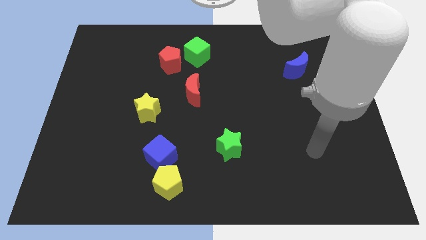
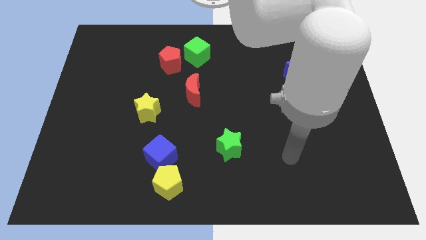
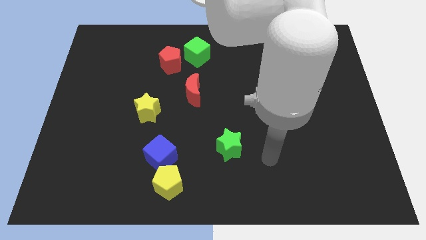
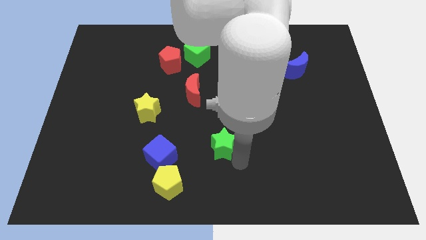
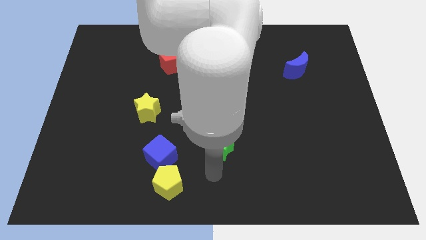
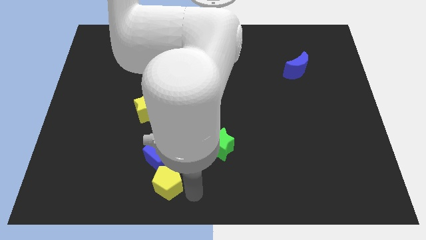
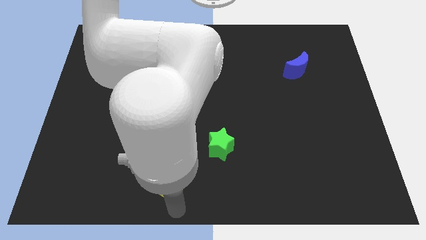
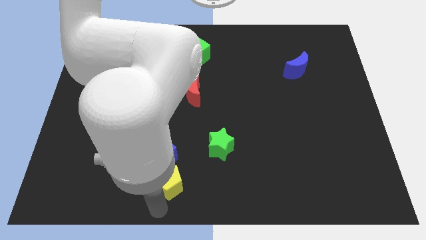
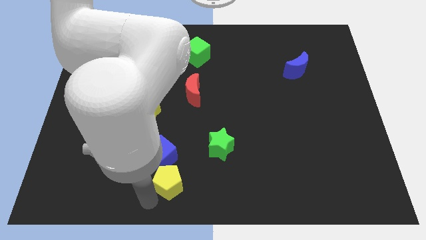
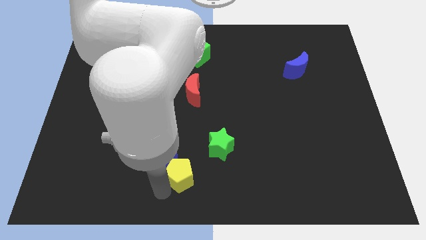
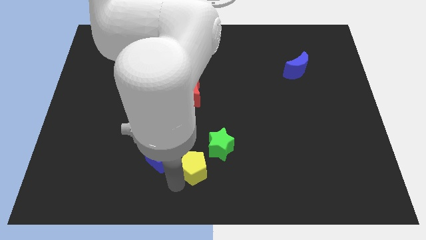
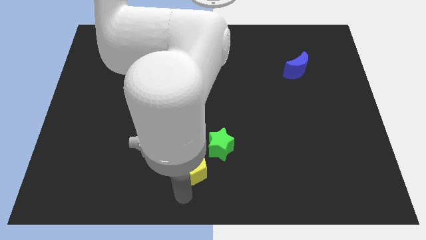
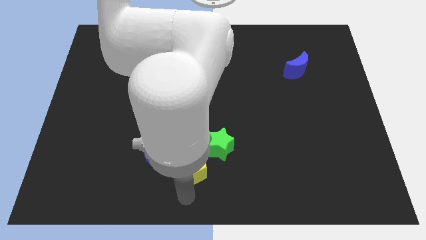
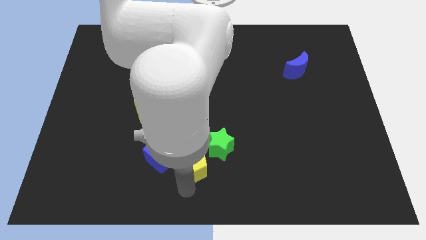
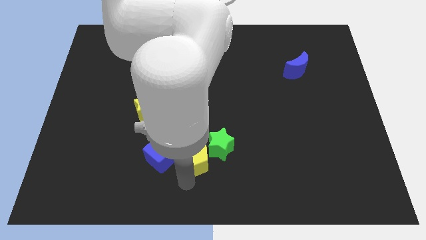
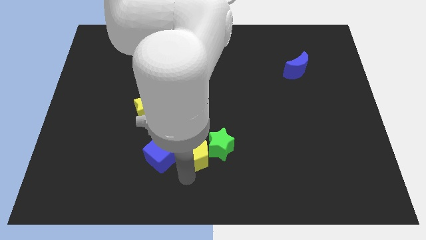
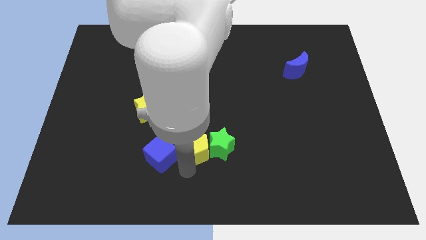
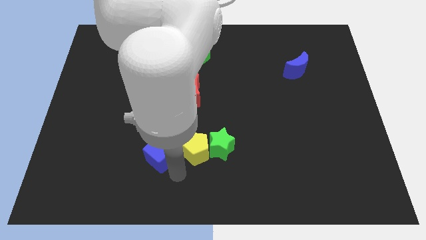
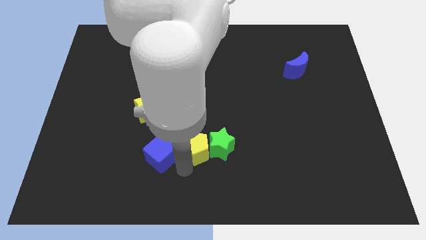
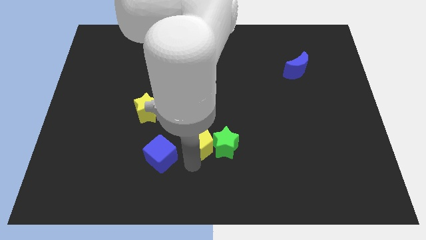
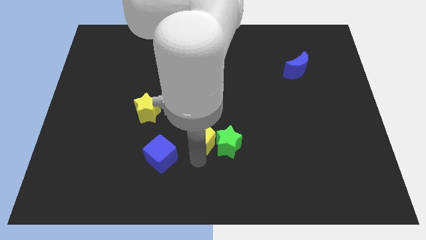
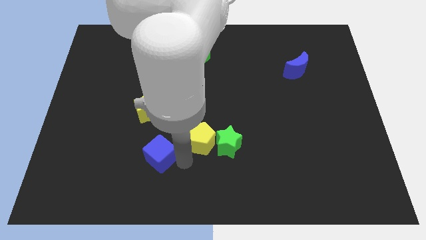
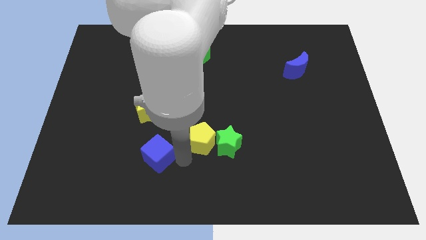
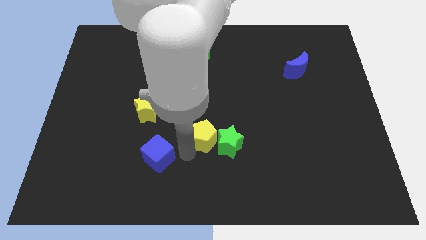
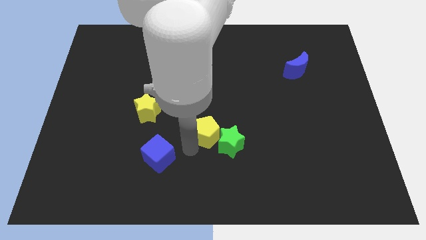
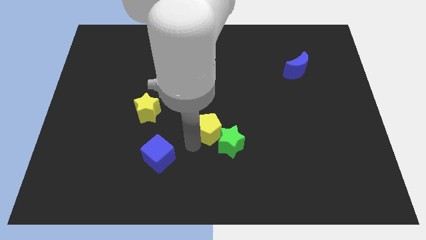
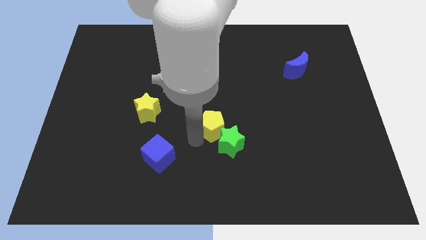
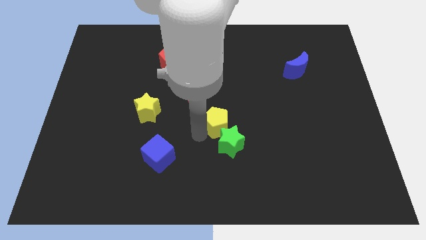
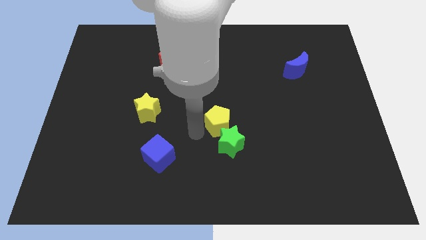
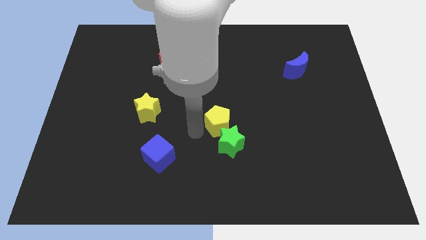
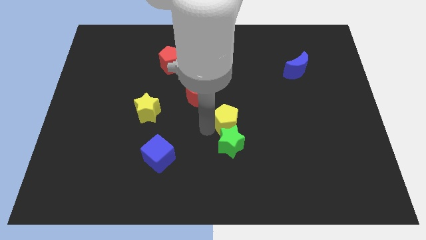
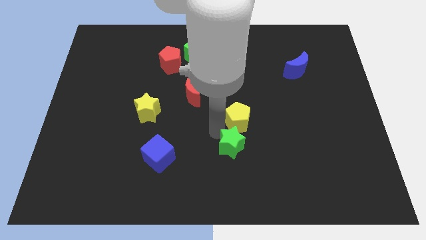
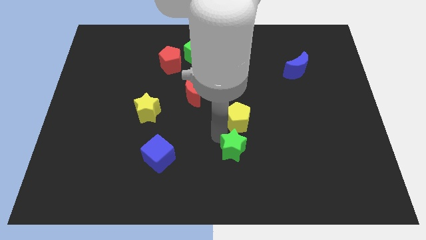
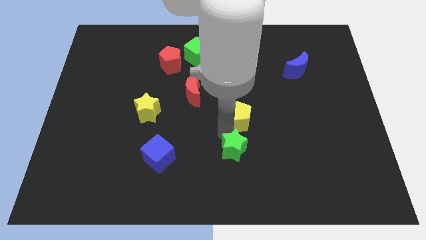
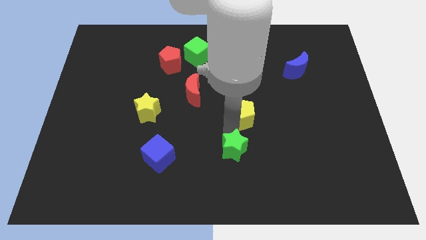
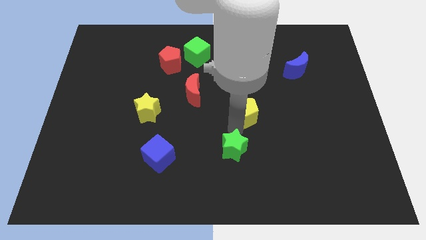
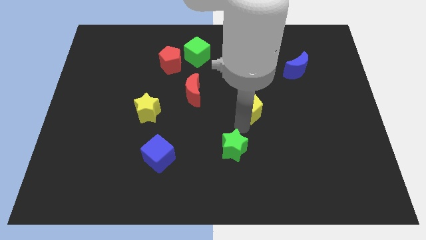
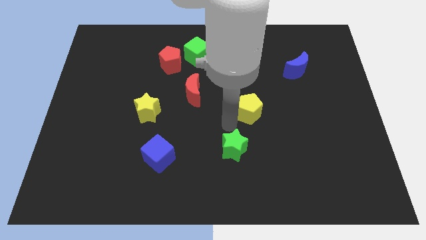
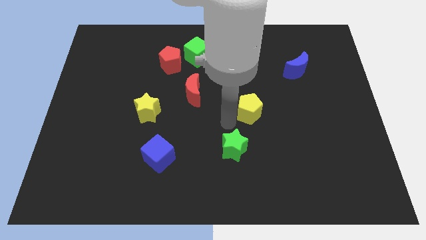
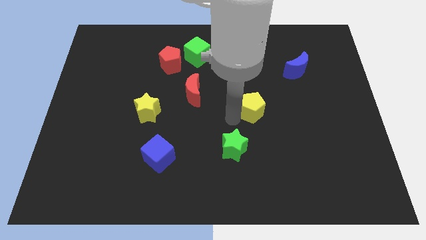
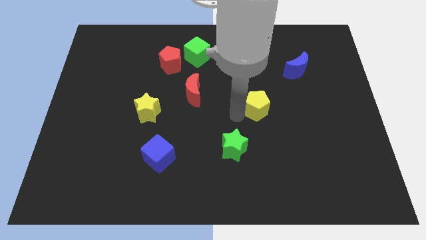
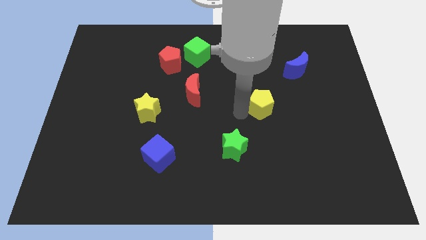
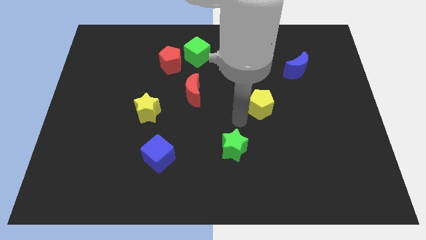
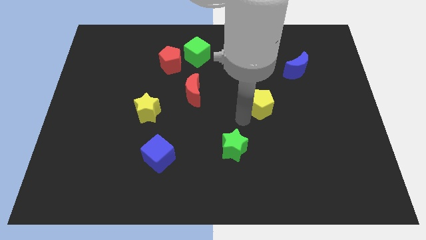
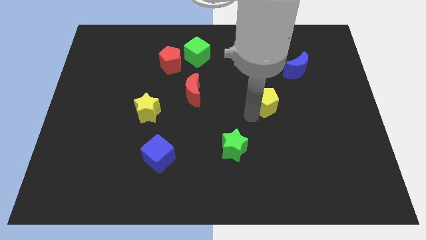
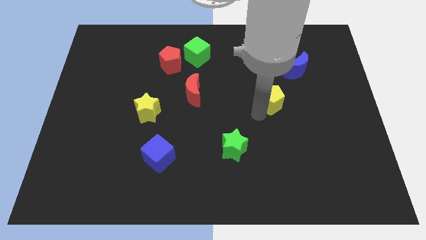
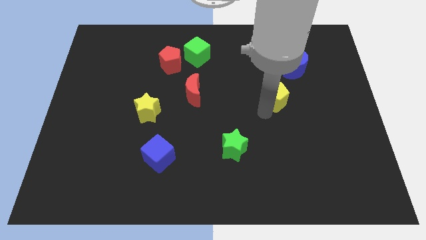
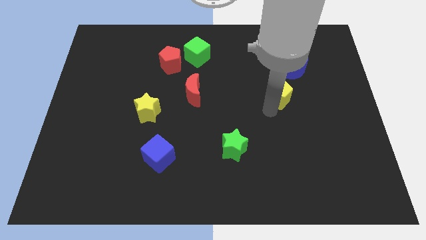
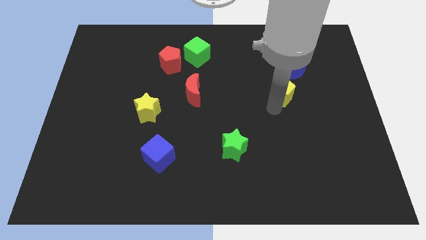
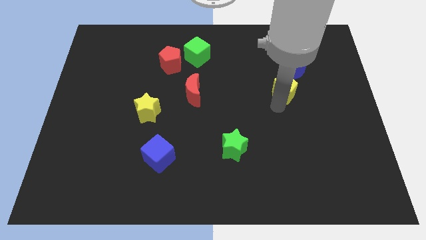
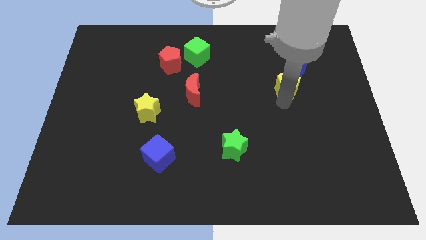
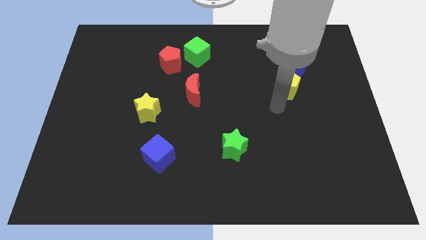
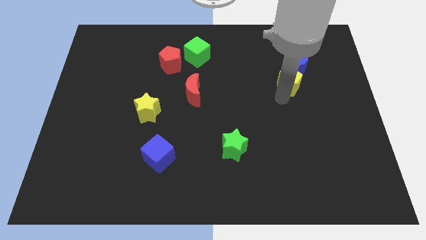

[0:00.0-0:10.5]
put the yellow pentagon close to the blue moon

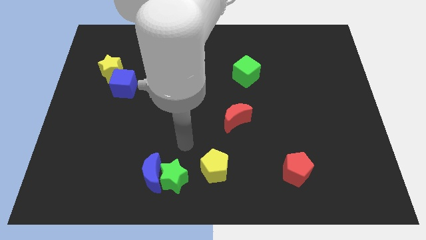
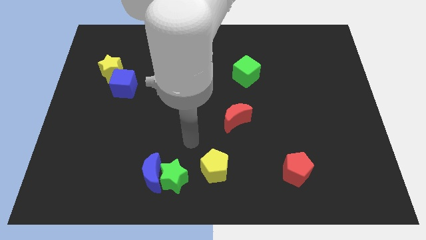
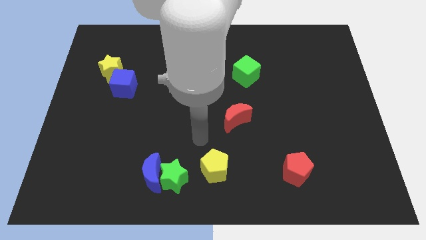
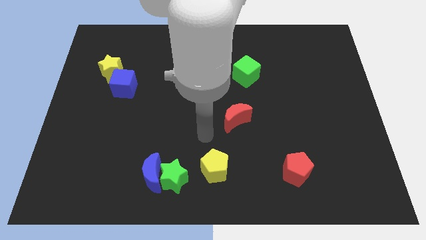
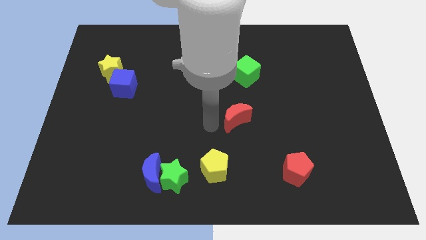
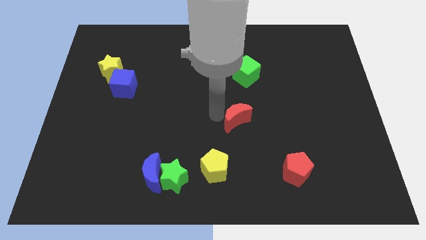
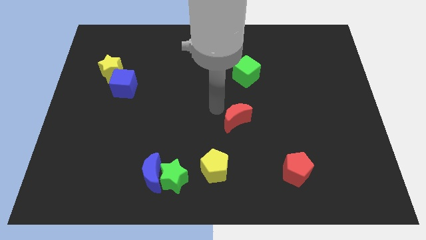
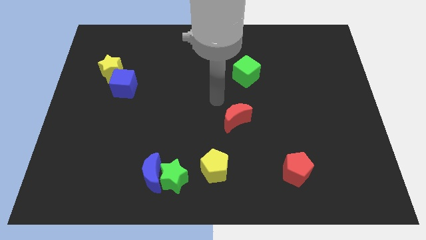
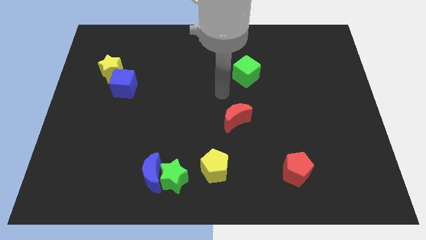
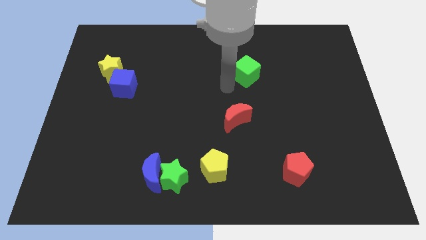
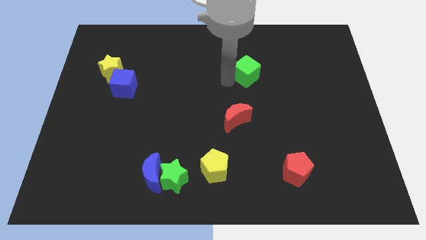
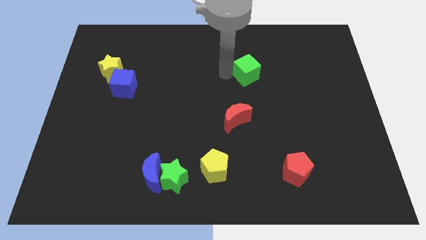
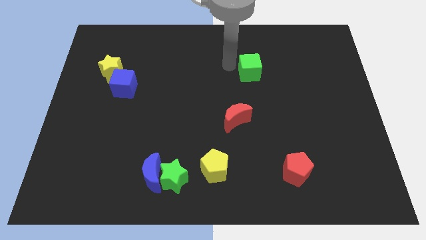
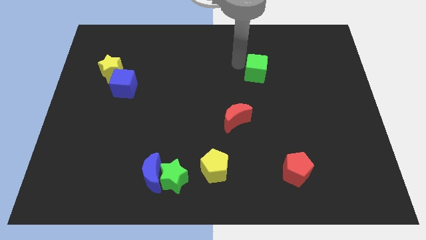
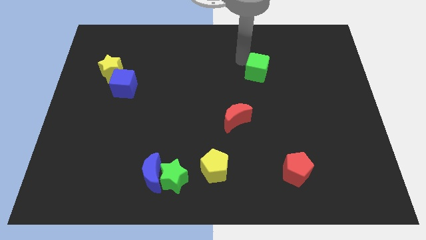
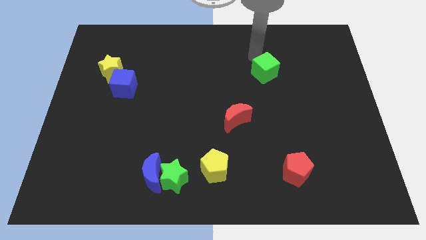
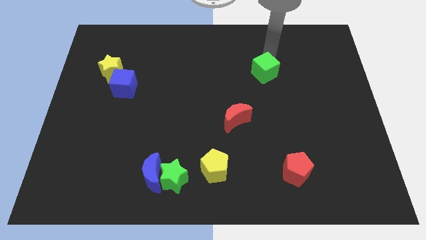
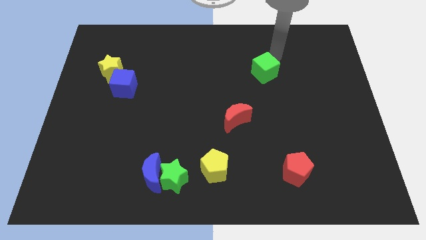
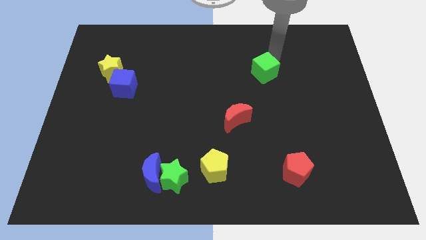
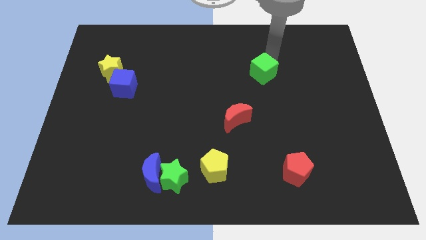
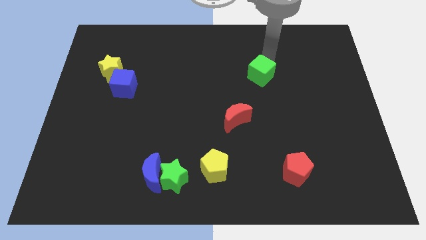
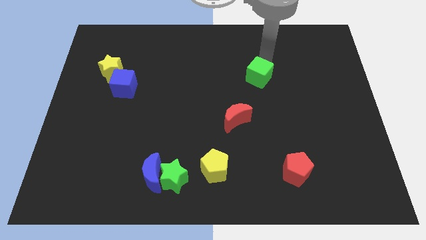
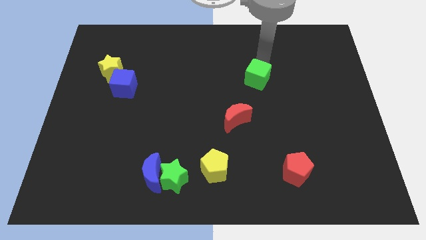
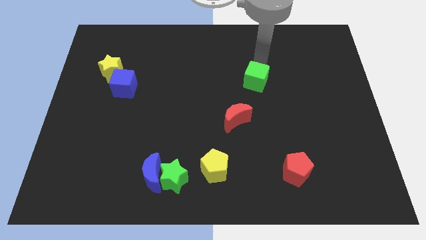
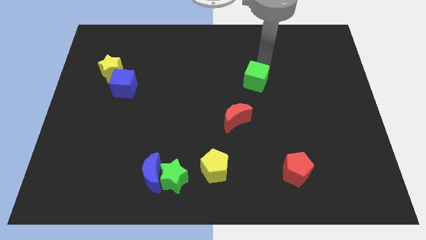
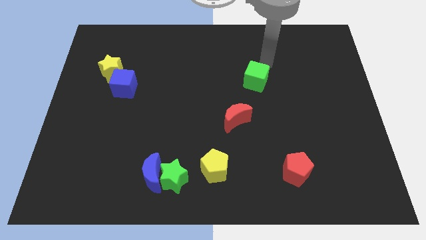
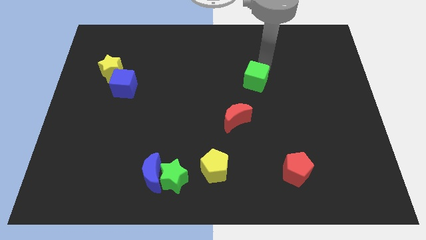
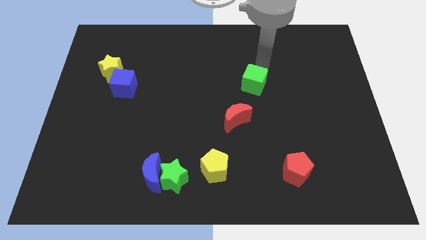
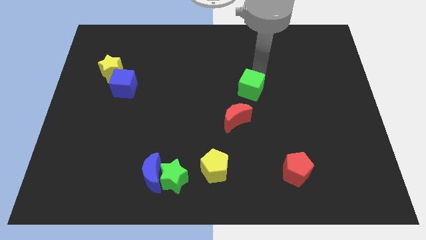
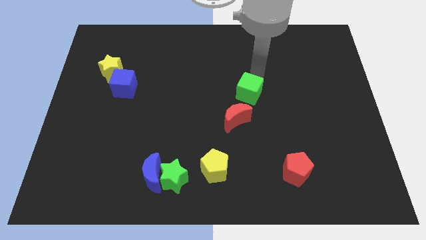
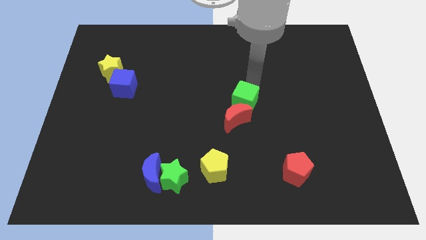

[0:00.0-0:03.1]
put the green cube to the red moon
